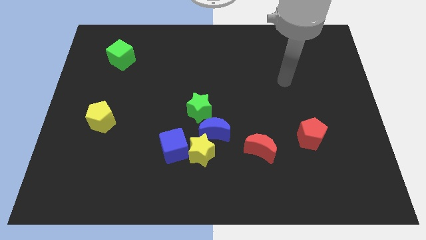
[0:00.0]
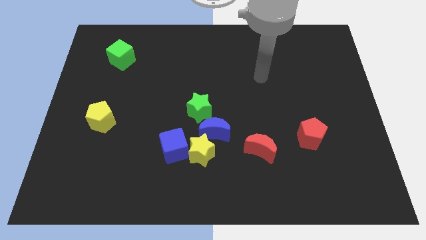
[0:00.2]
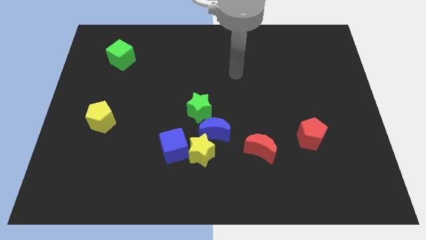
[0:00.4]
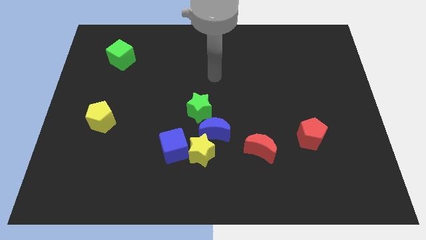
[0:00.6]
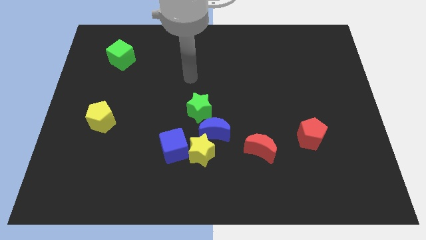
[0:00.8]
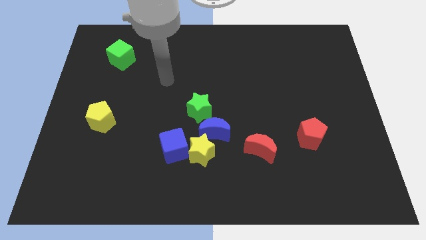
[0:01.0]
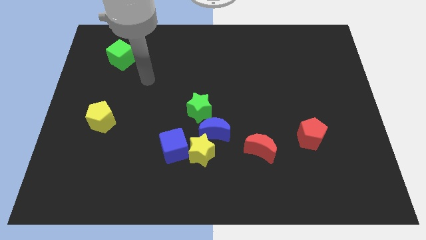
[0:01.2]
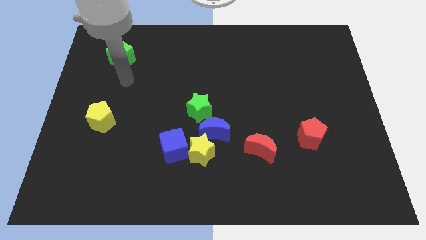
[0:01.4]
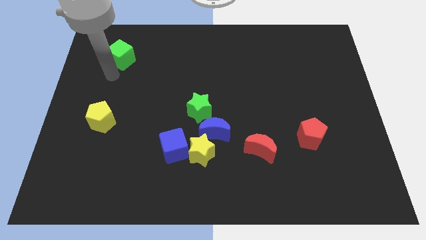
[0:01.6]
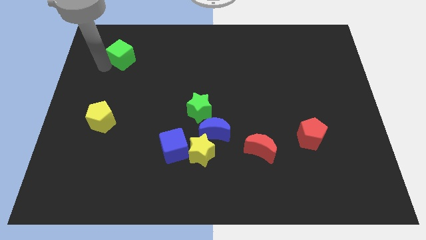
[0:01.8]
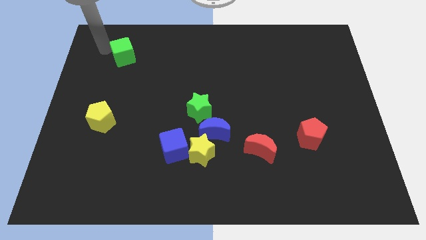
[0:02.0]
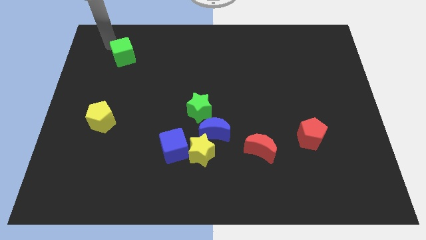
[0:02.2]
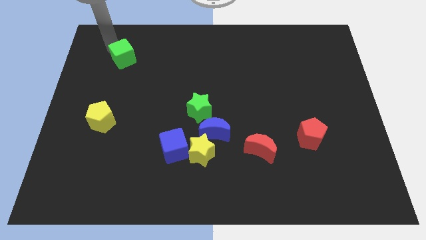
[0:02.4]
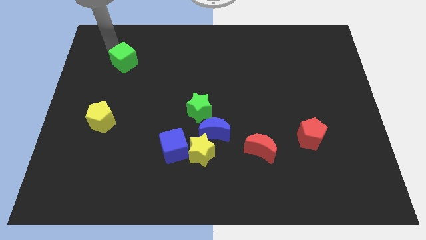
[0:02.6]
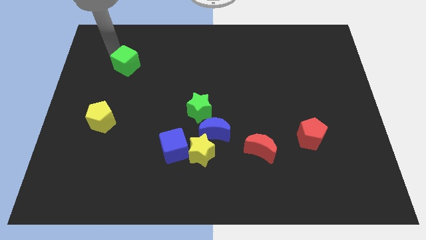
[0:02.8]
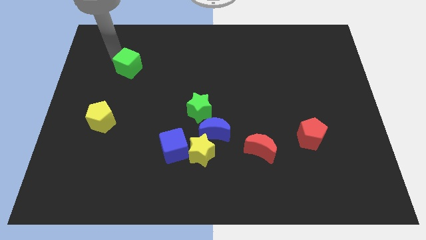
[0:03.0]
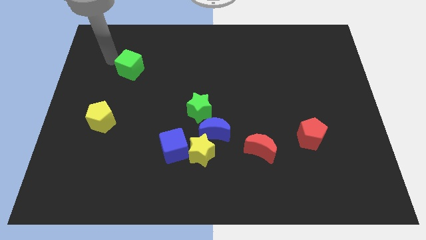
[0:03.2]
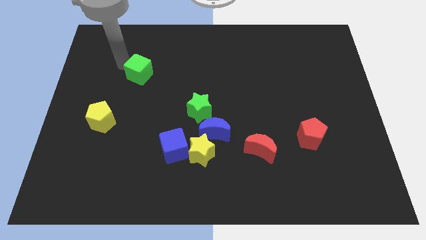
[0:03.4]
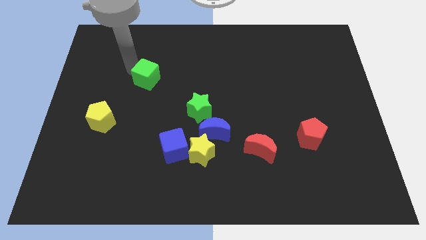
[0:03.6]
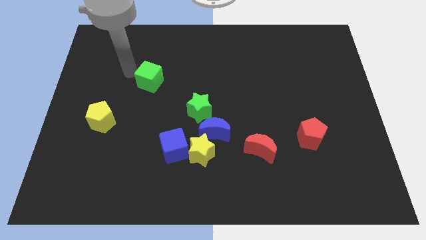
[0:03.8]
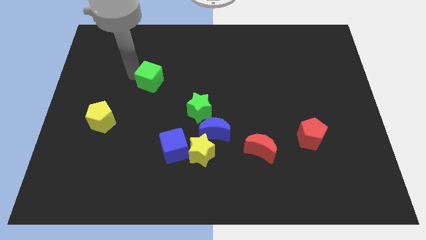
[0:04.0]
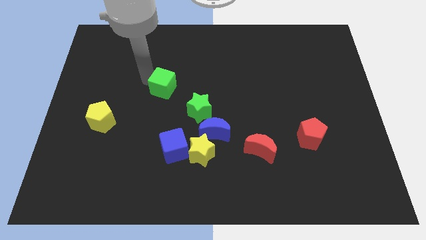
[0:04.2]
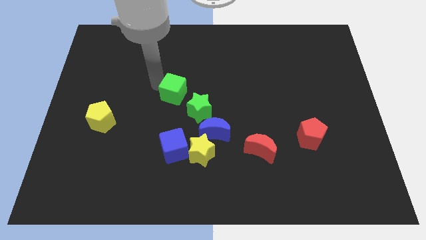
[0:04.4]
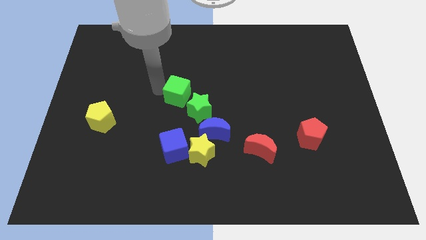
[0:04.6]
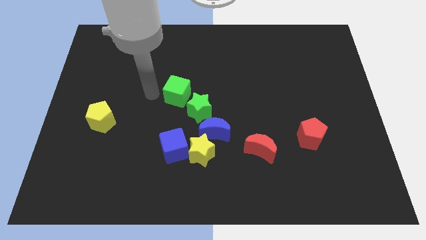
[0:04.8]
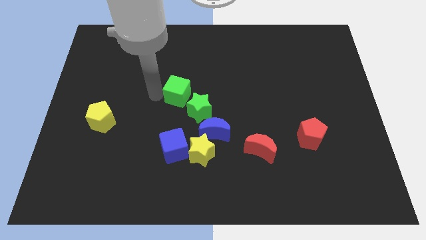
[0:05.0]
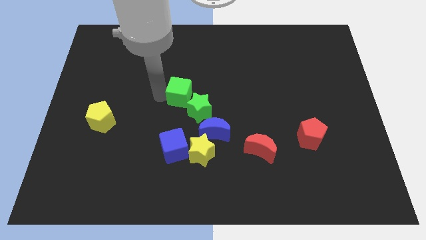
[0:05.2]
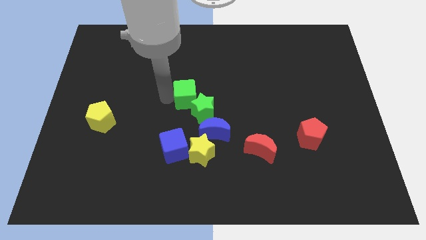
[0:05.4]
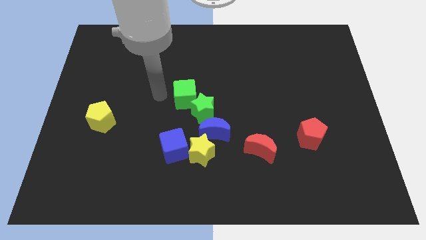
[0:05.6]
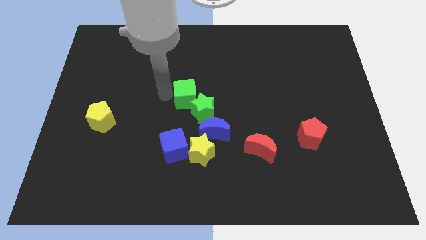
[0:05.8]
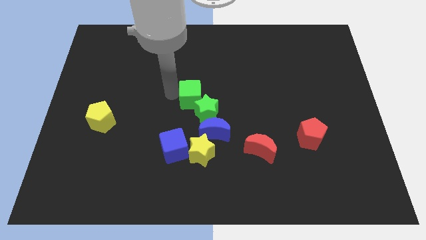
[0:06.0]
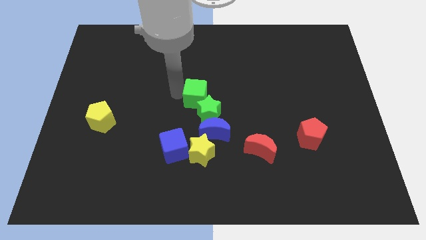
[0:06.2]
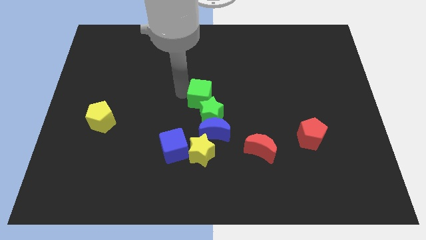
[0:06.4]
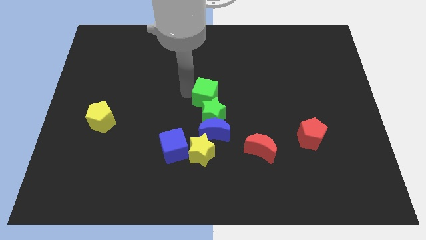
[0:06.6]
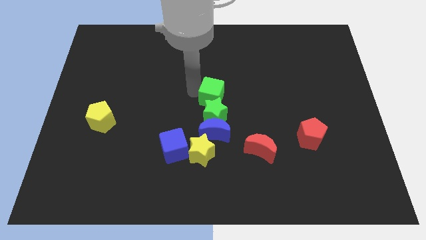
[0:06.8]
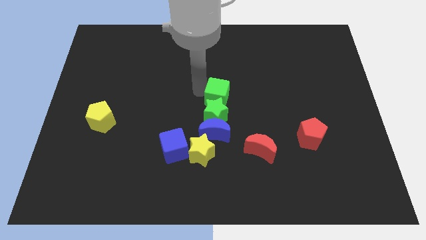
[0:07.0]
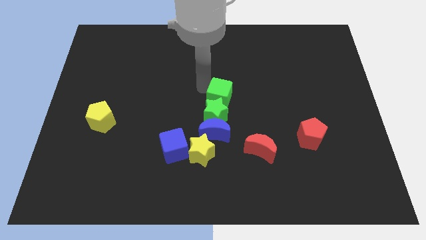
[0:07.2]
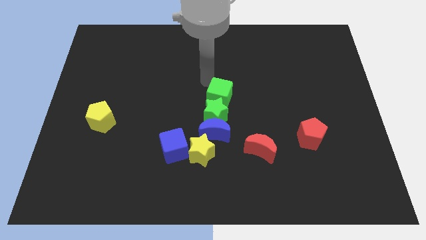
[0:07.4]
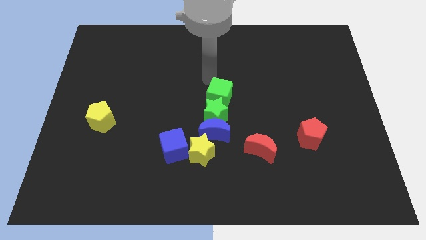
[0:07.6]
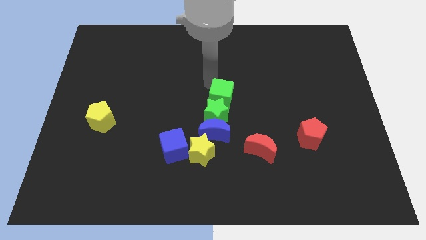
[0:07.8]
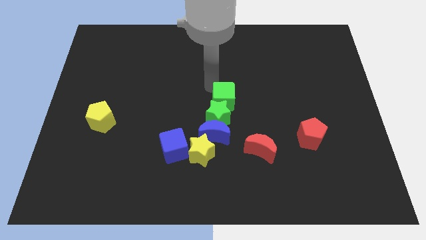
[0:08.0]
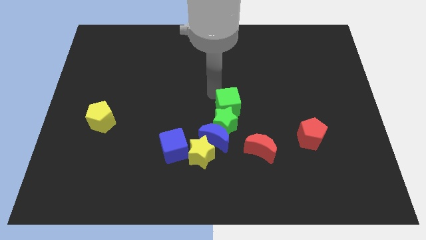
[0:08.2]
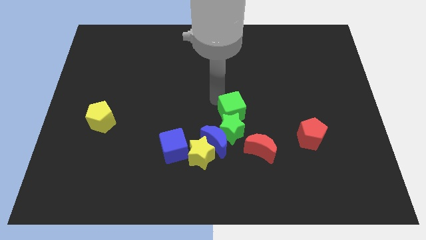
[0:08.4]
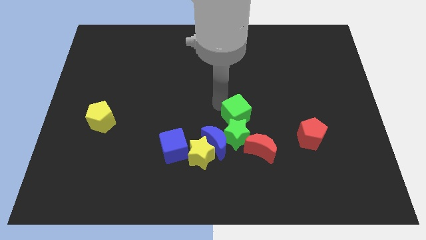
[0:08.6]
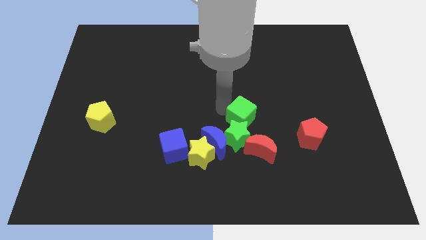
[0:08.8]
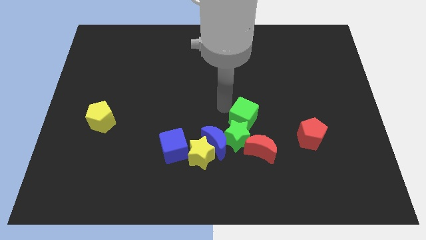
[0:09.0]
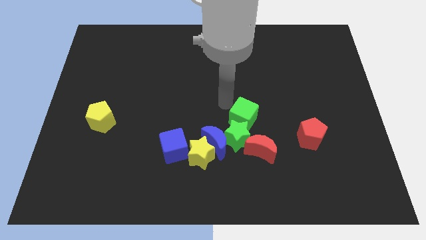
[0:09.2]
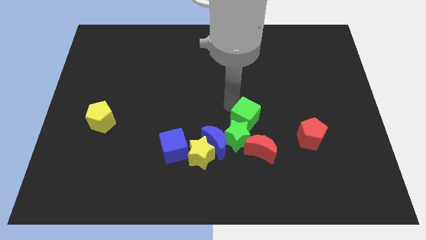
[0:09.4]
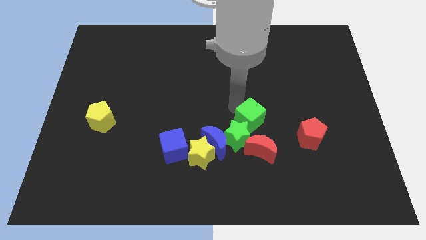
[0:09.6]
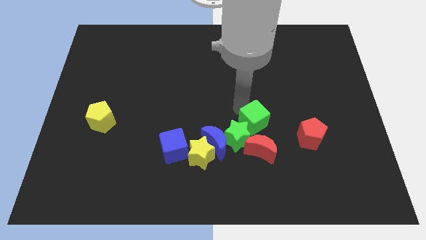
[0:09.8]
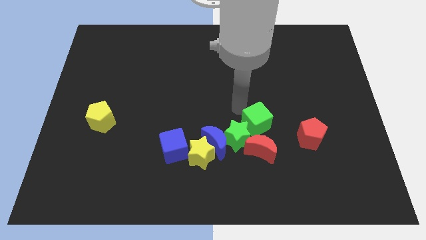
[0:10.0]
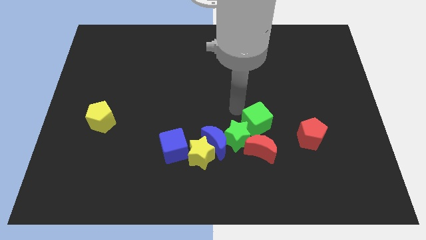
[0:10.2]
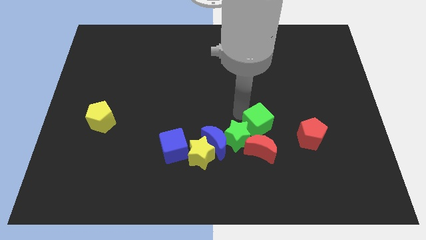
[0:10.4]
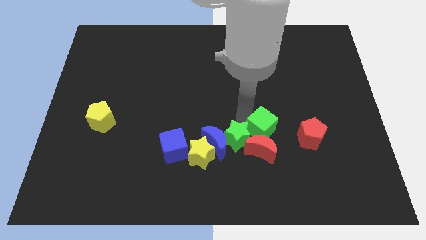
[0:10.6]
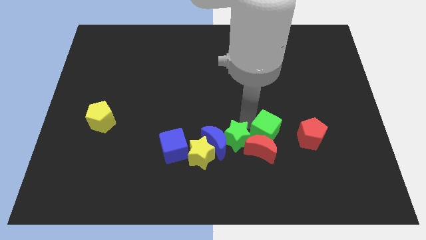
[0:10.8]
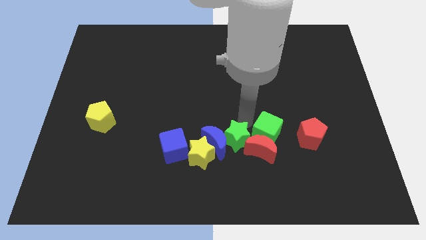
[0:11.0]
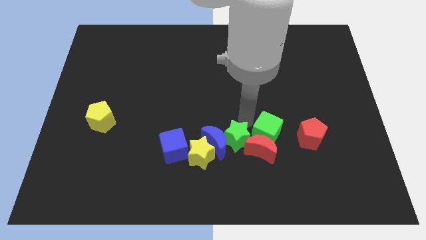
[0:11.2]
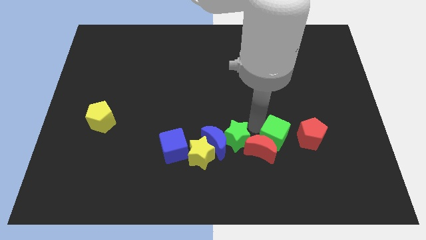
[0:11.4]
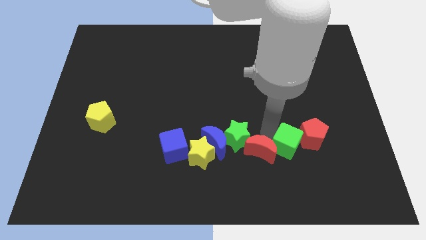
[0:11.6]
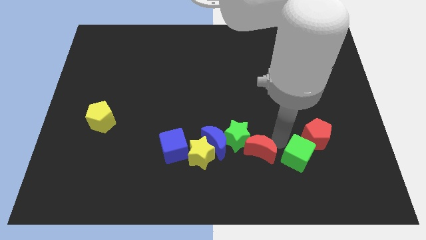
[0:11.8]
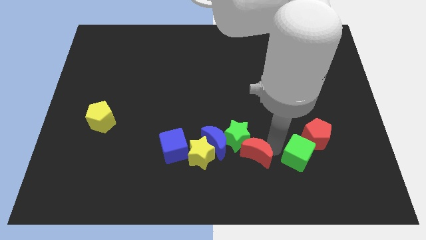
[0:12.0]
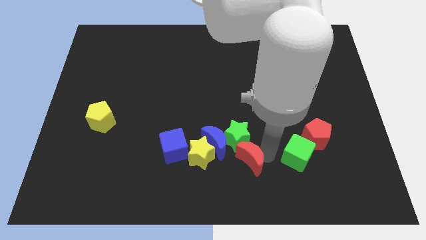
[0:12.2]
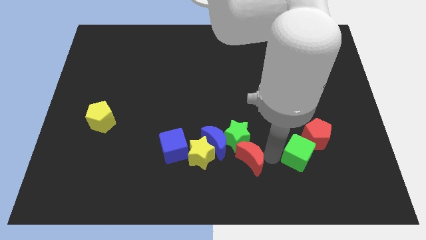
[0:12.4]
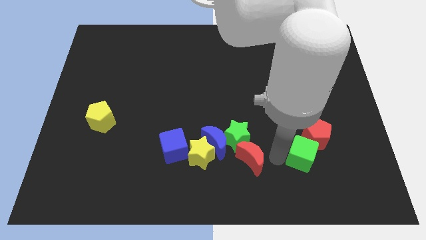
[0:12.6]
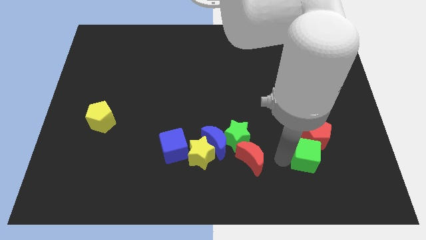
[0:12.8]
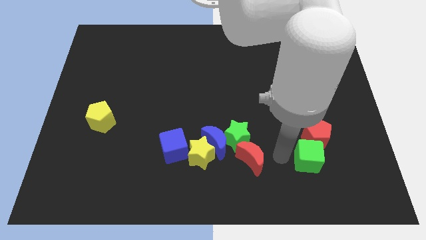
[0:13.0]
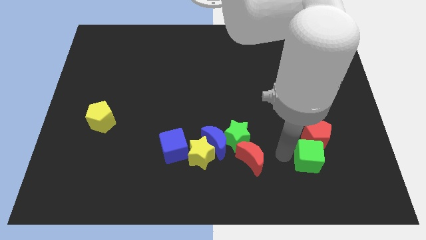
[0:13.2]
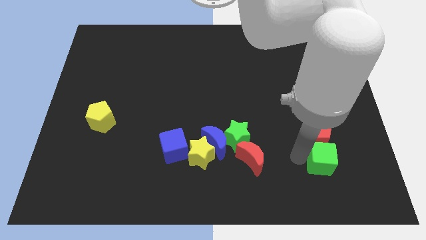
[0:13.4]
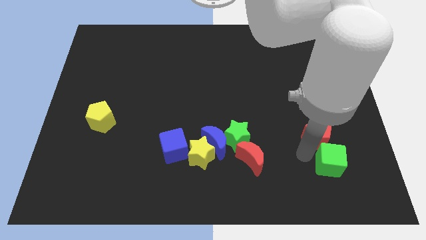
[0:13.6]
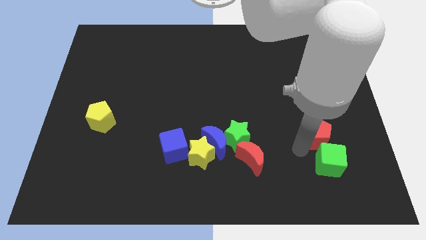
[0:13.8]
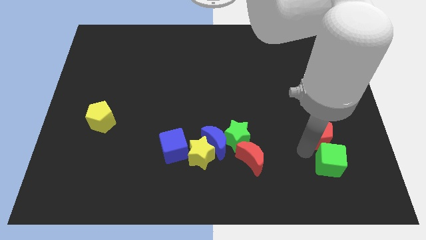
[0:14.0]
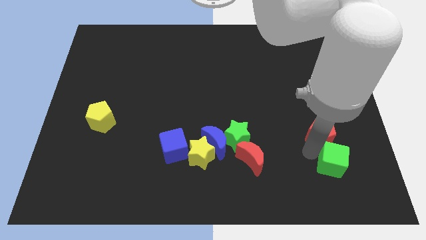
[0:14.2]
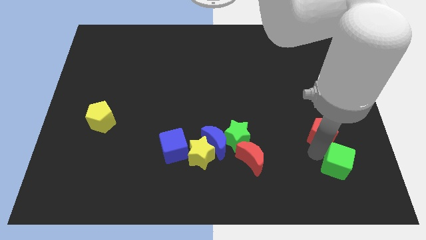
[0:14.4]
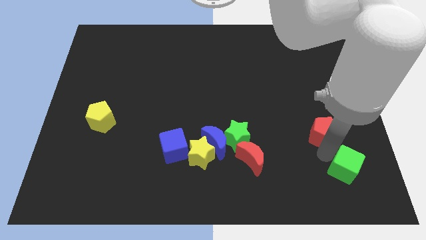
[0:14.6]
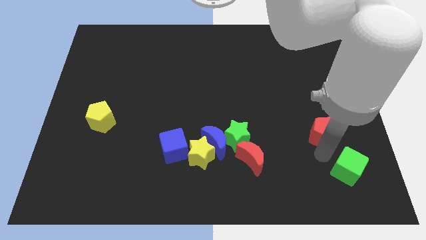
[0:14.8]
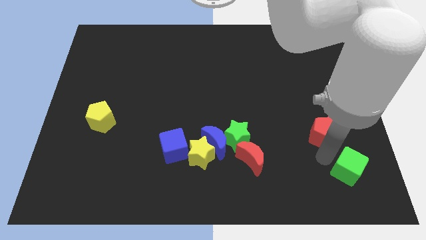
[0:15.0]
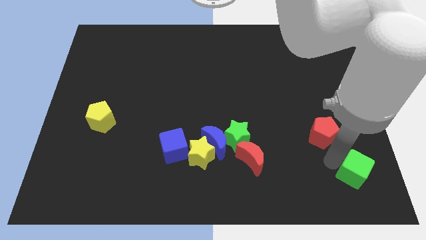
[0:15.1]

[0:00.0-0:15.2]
put the green cube to the bottom right of the board
